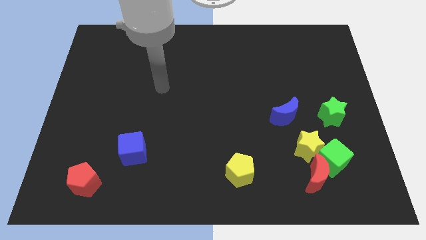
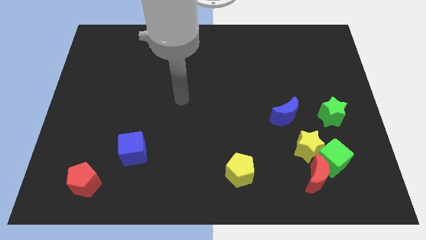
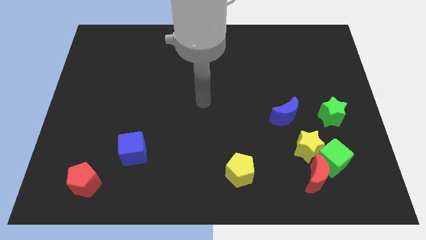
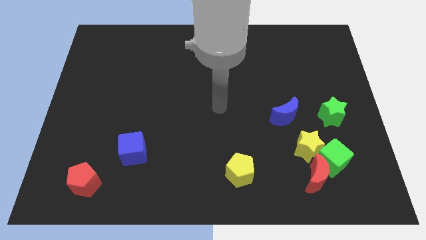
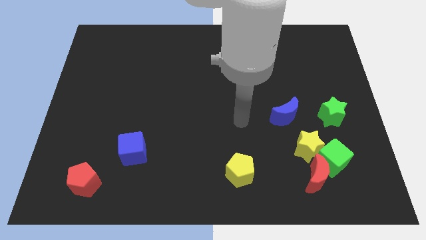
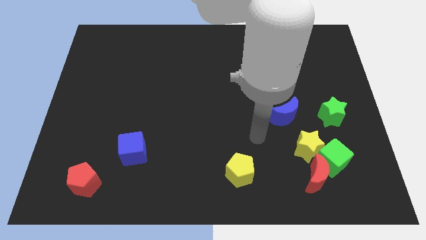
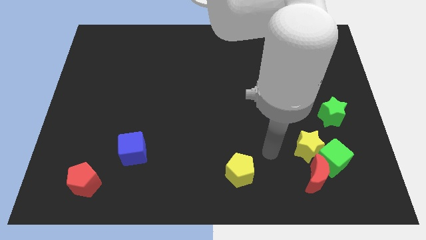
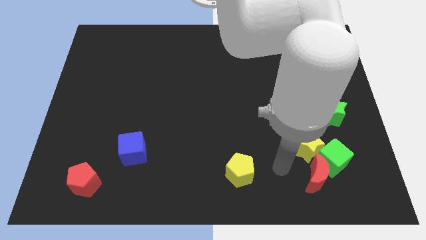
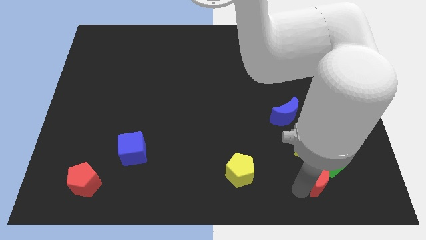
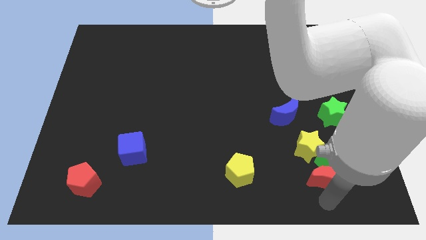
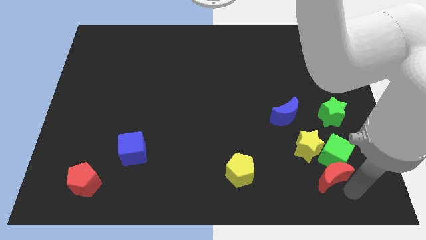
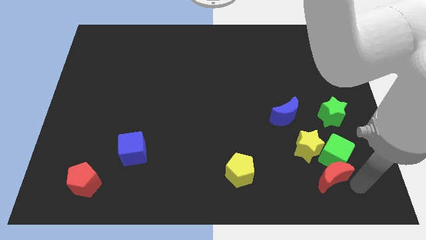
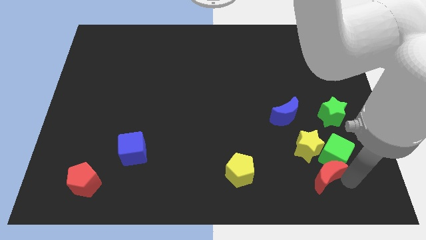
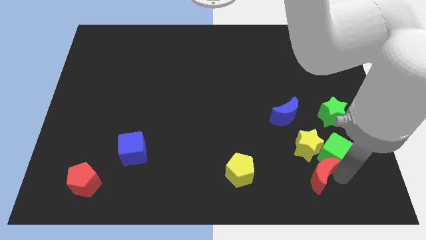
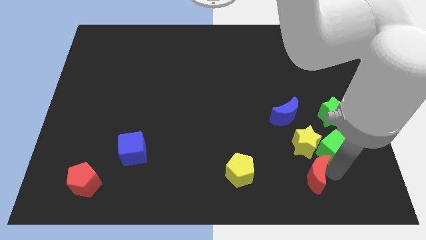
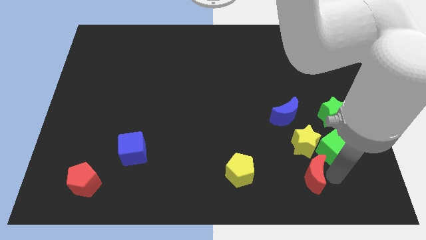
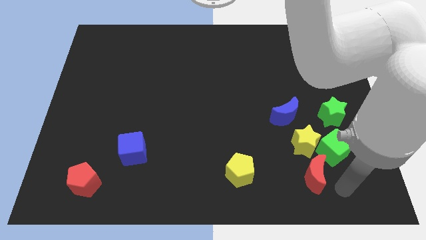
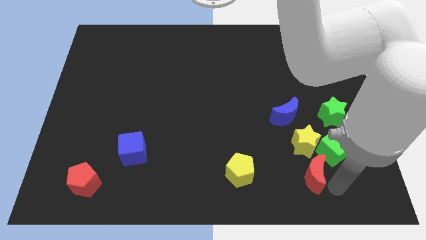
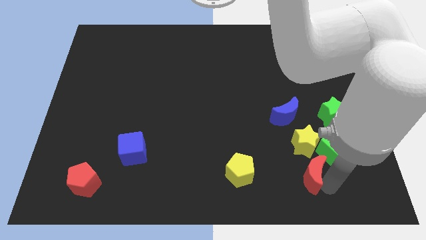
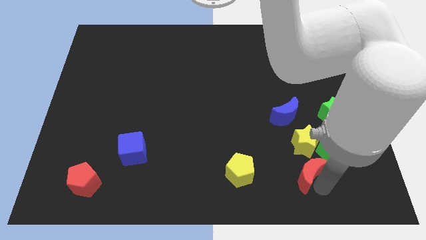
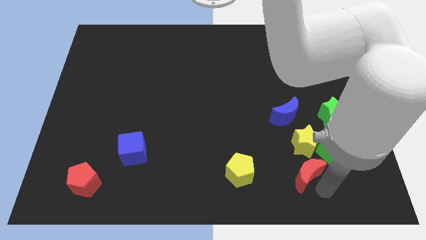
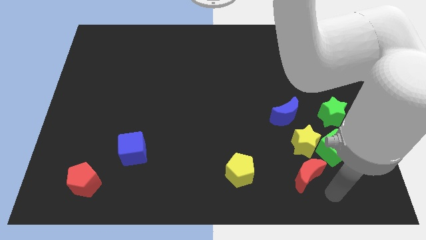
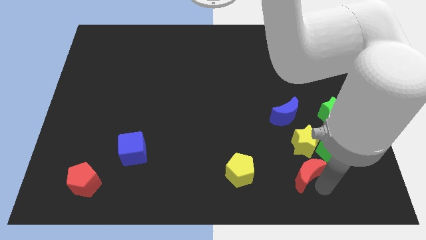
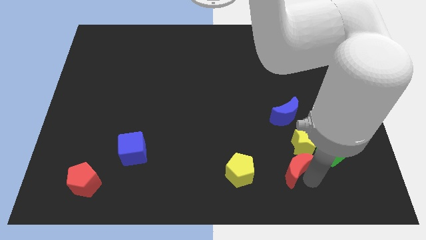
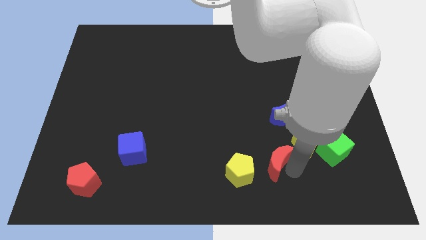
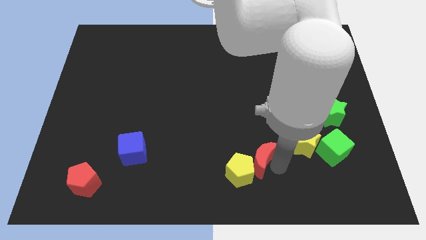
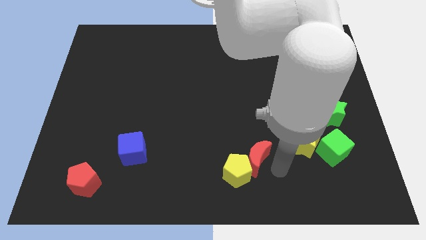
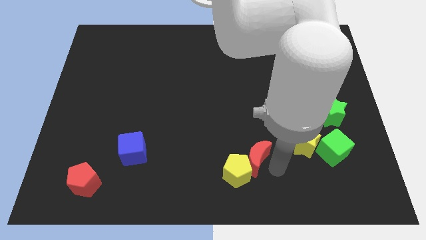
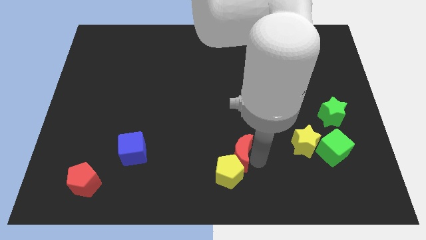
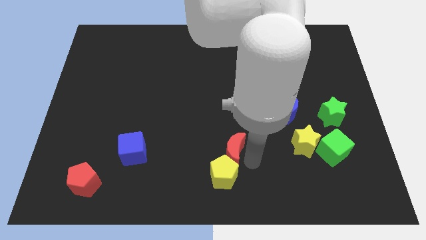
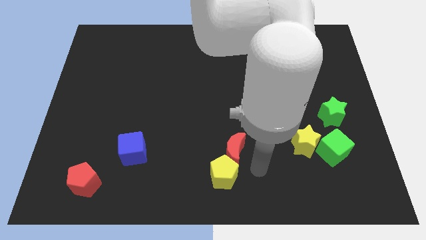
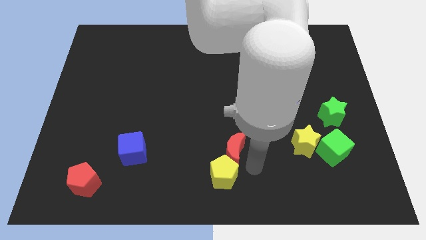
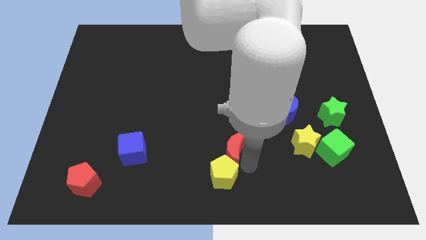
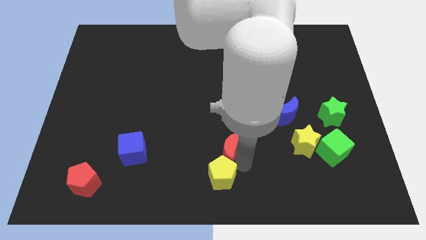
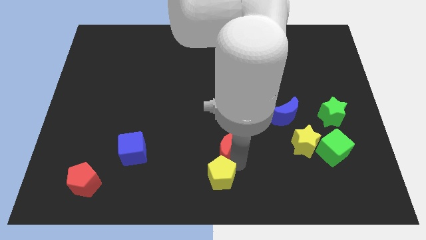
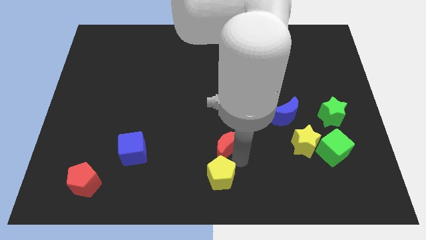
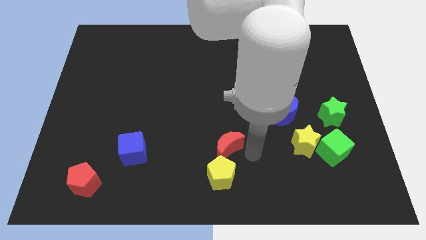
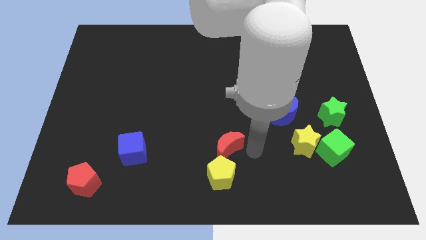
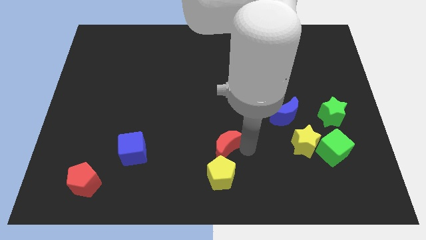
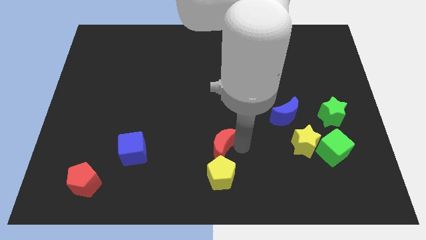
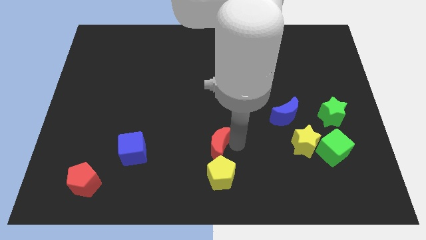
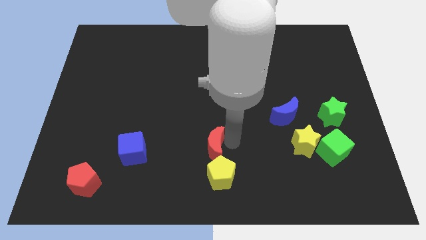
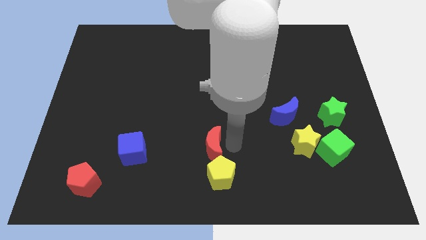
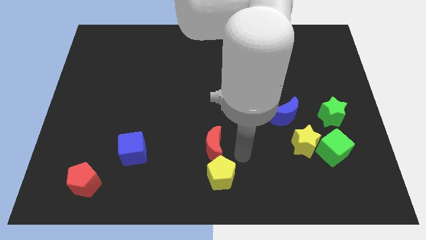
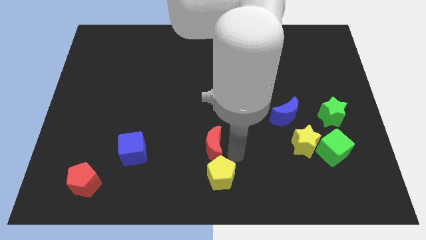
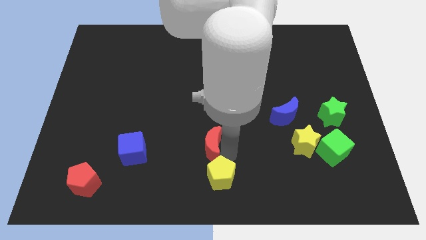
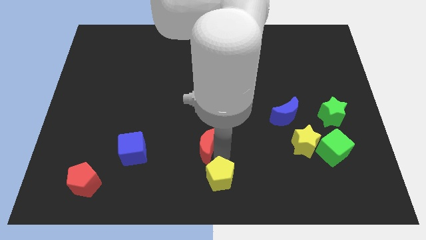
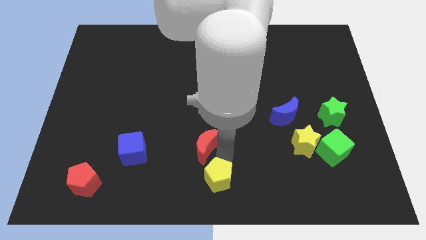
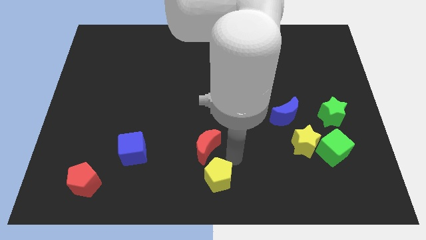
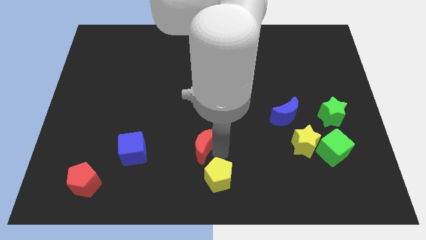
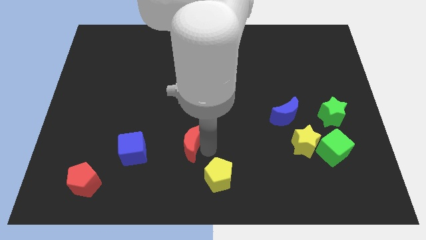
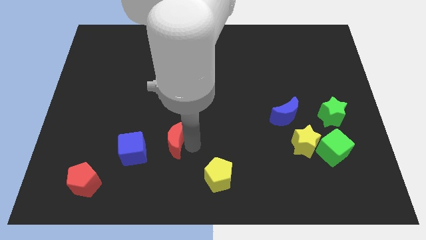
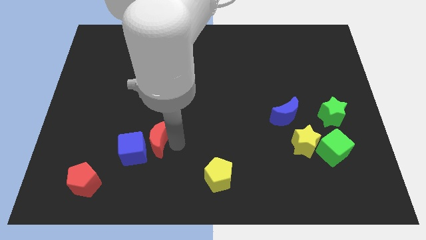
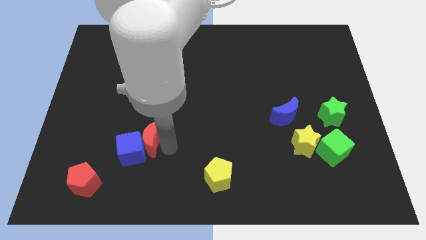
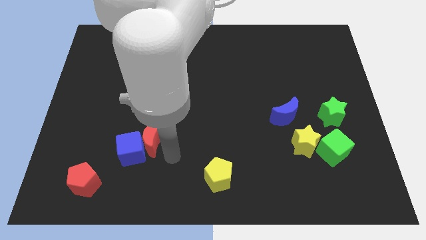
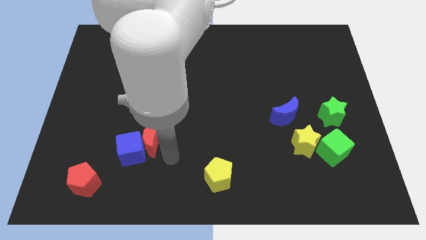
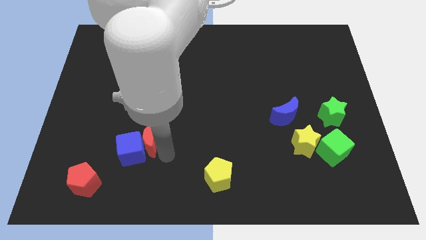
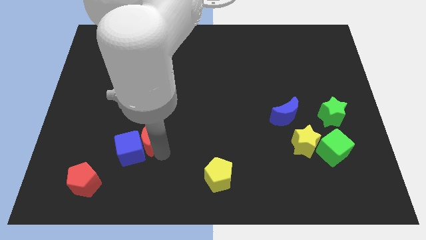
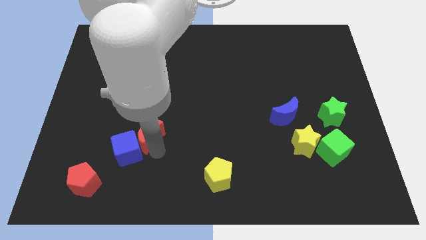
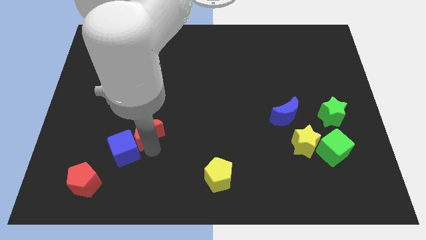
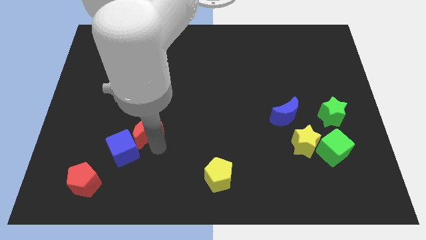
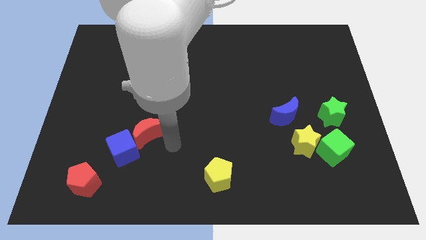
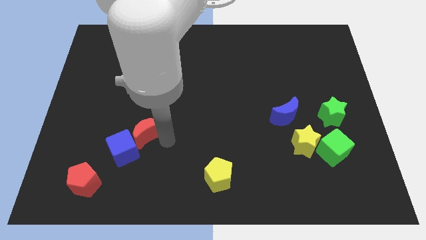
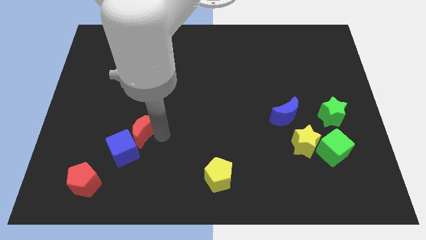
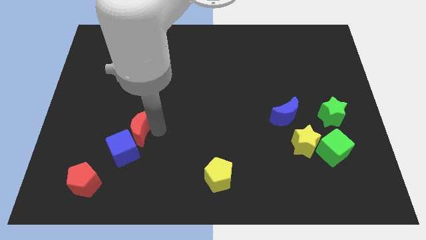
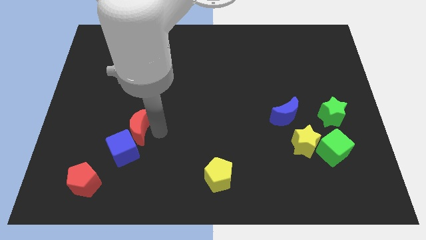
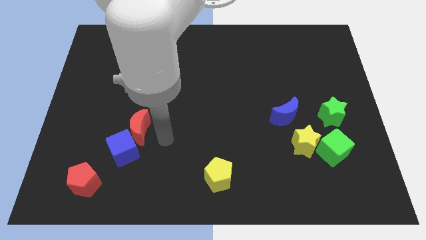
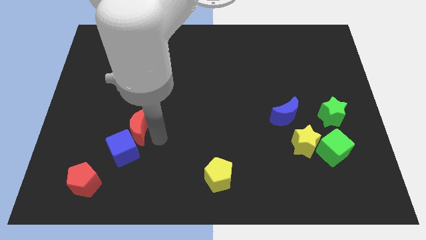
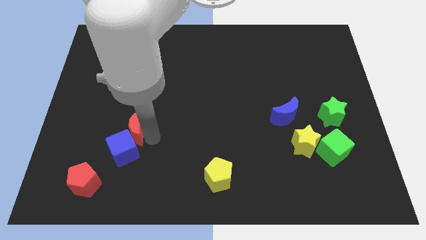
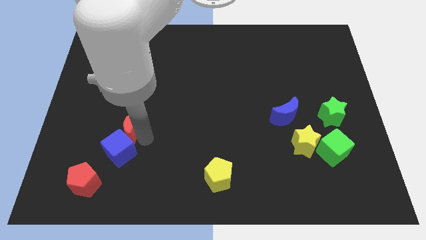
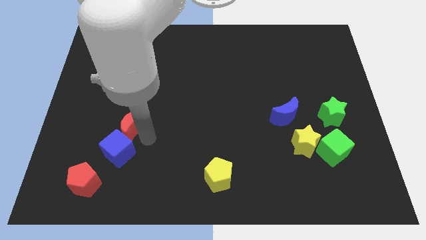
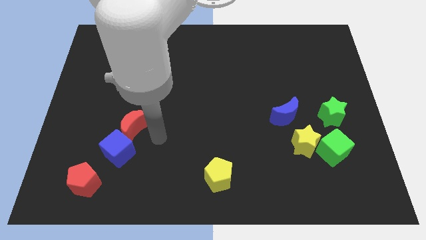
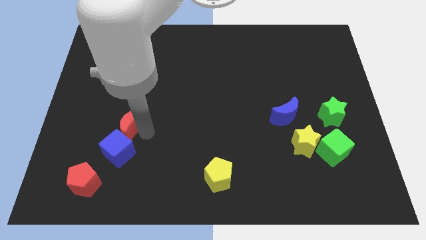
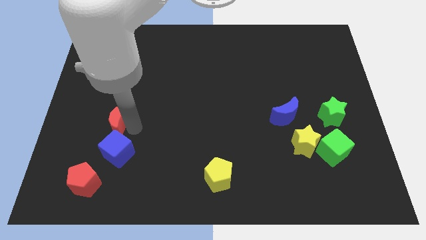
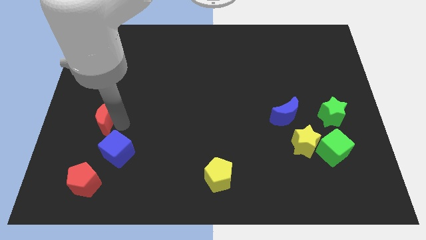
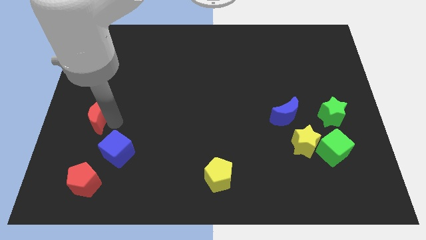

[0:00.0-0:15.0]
push the red moon to the left side
